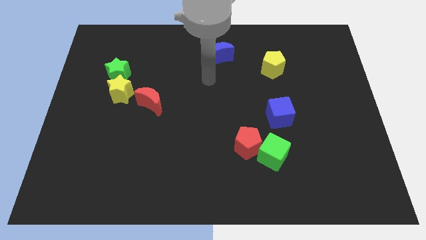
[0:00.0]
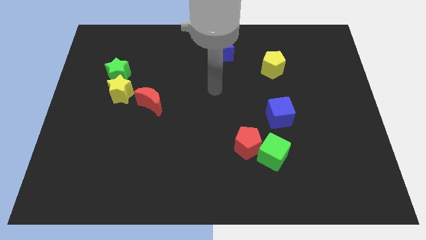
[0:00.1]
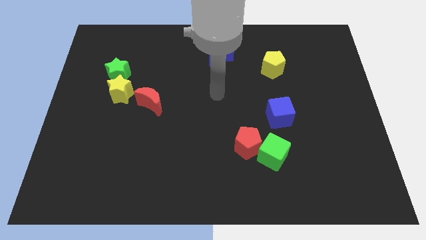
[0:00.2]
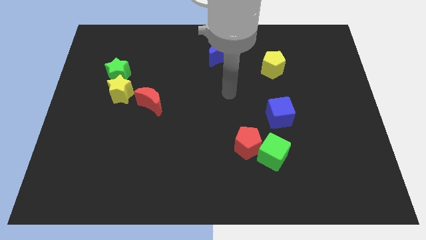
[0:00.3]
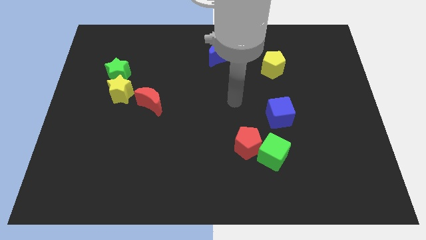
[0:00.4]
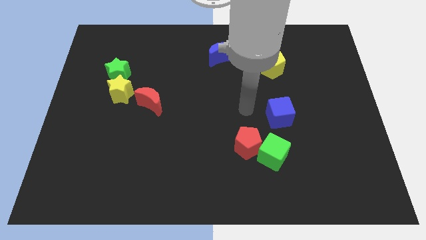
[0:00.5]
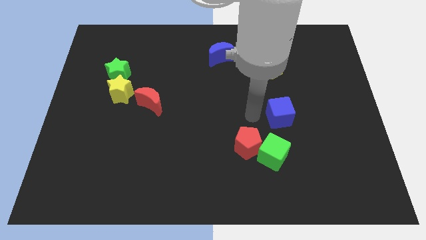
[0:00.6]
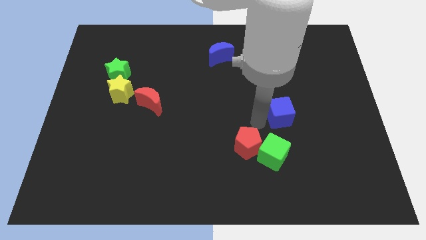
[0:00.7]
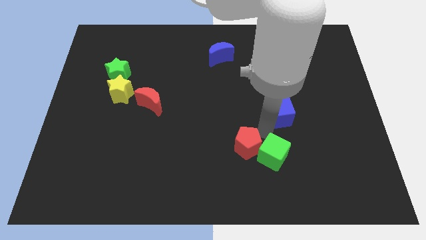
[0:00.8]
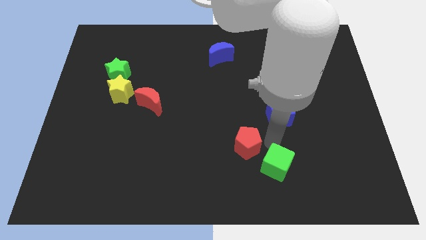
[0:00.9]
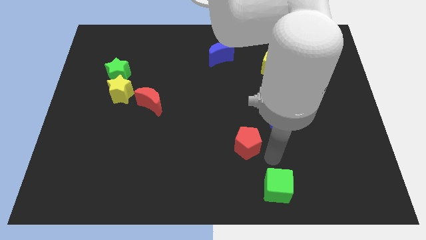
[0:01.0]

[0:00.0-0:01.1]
move the red pentagon away from the green cube

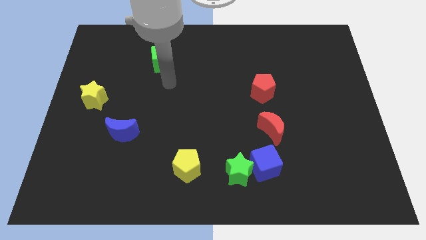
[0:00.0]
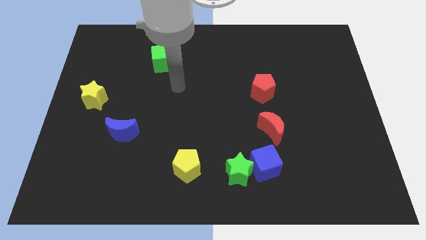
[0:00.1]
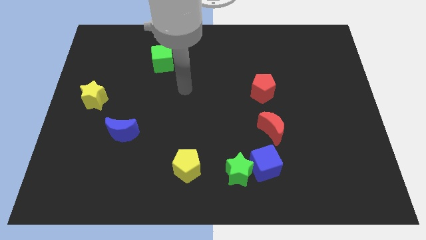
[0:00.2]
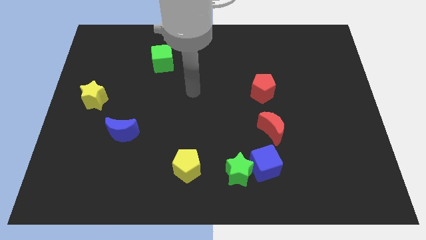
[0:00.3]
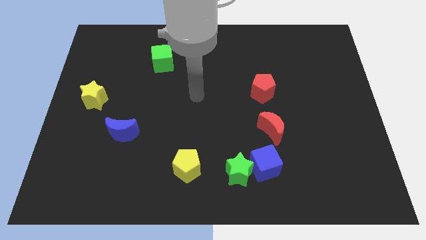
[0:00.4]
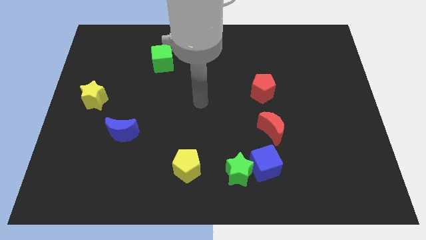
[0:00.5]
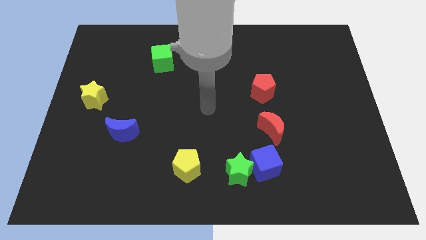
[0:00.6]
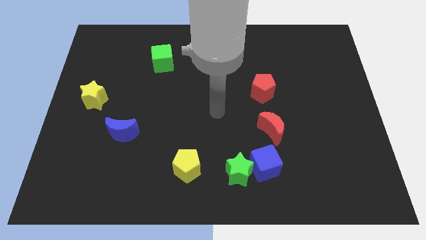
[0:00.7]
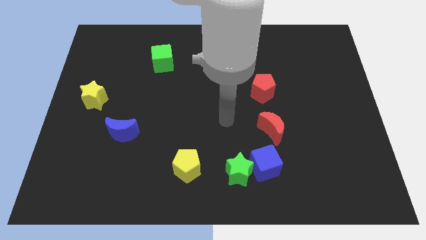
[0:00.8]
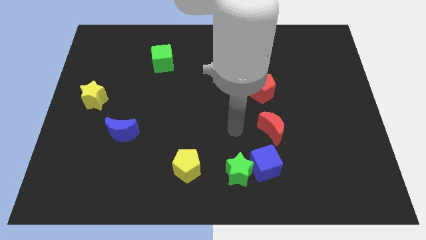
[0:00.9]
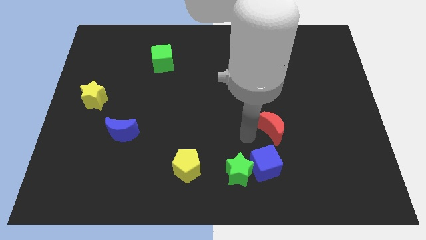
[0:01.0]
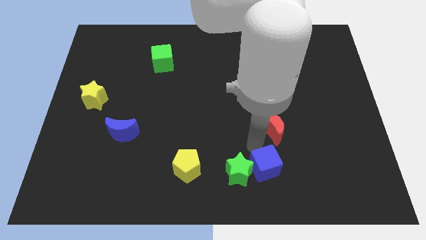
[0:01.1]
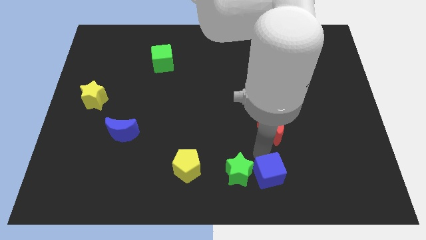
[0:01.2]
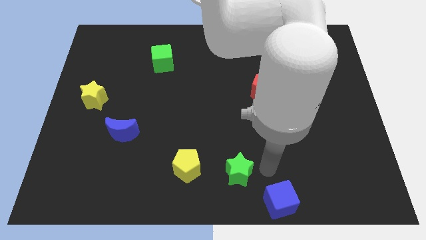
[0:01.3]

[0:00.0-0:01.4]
separate the green star from the blue cube

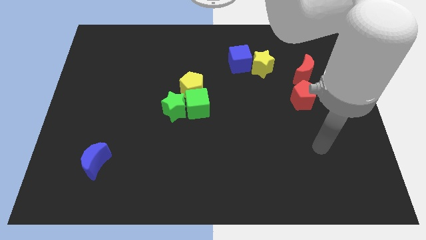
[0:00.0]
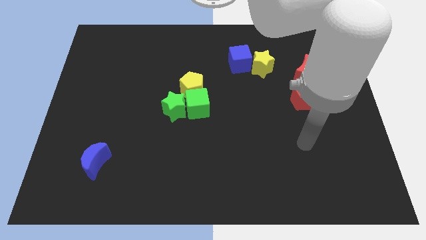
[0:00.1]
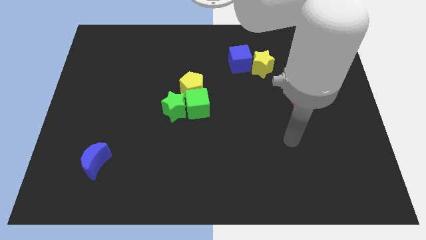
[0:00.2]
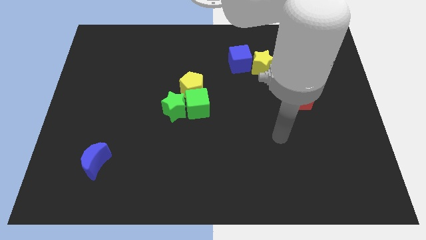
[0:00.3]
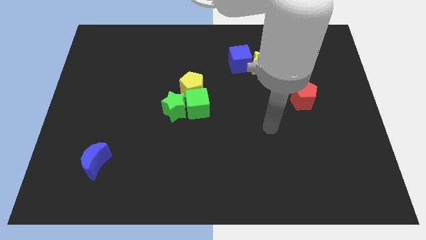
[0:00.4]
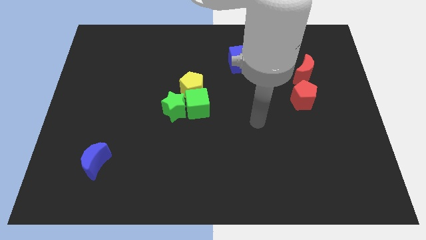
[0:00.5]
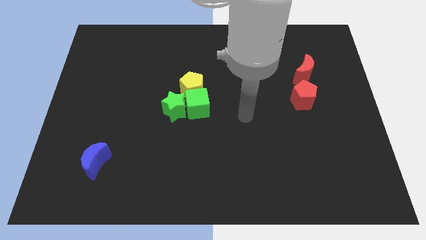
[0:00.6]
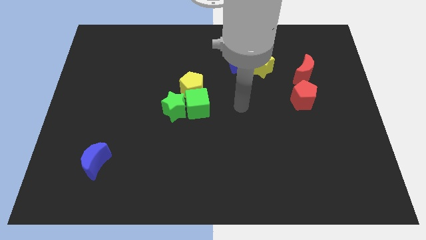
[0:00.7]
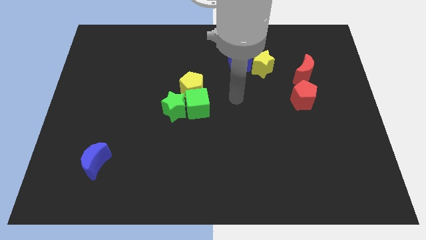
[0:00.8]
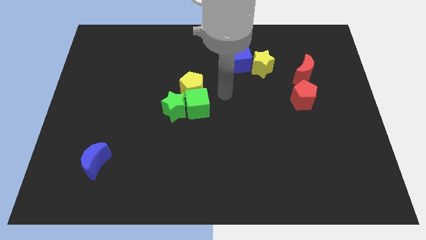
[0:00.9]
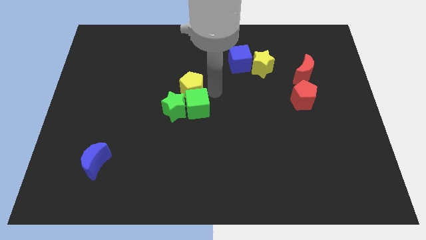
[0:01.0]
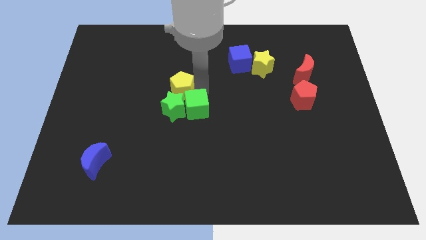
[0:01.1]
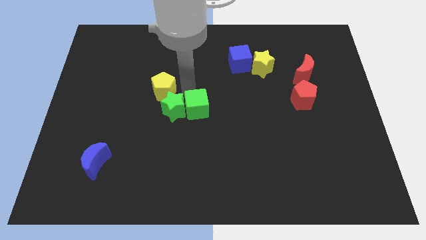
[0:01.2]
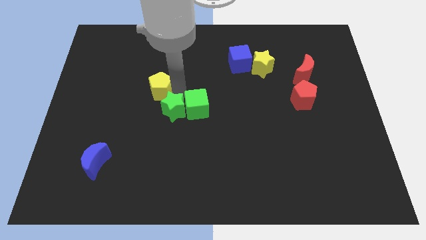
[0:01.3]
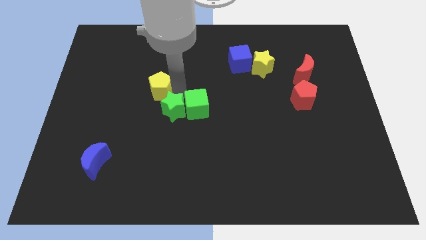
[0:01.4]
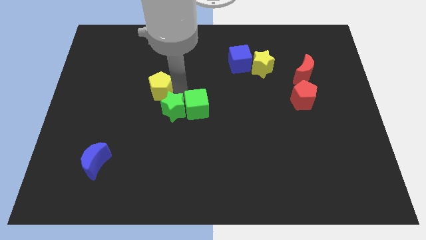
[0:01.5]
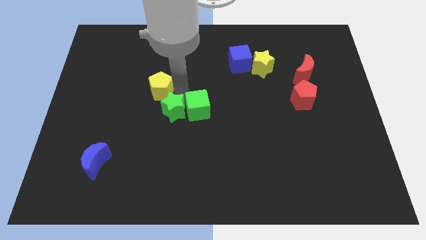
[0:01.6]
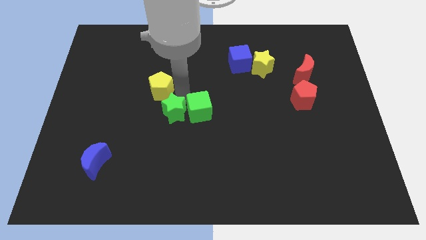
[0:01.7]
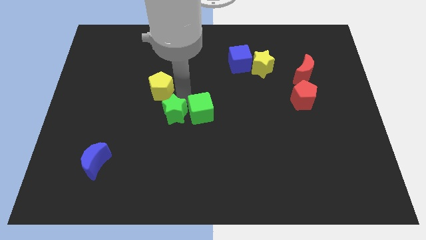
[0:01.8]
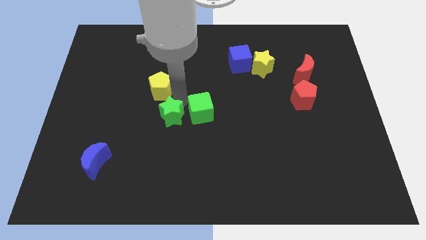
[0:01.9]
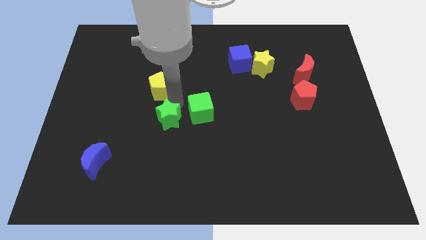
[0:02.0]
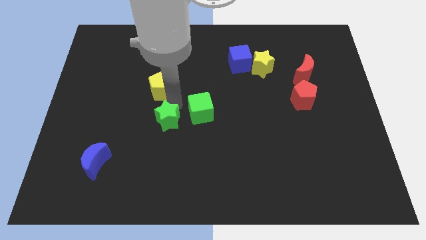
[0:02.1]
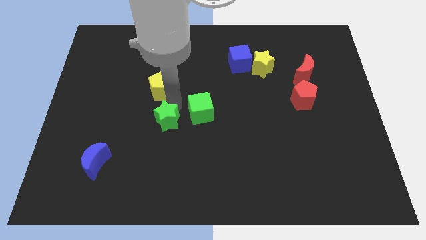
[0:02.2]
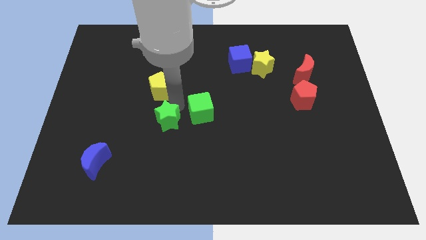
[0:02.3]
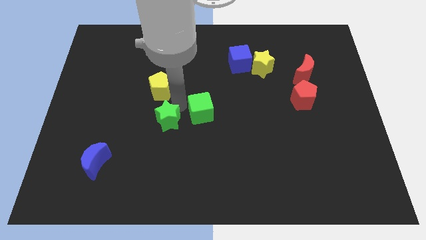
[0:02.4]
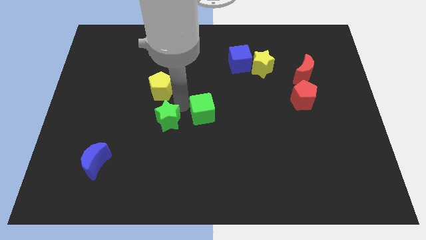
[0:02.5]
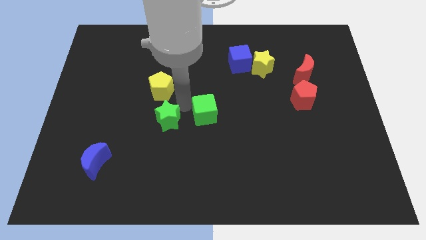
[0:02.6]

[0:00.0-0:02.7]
separate the green cube from the yellow pentagon and green star

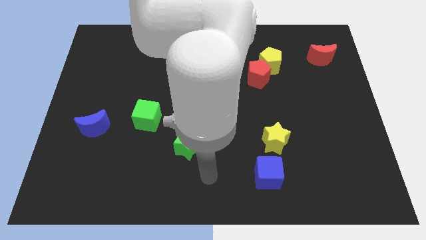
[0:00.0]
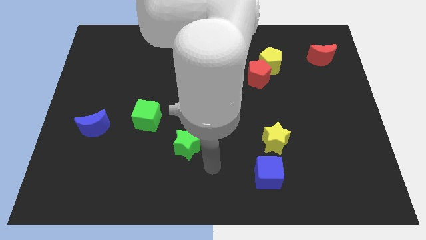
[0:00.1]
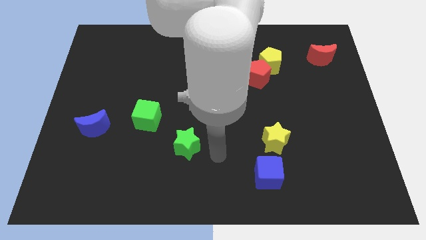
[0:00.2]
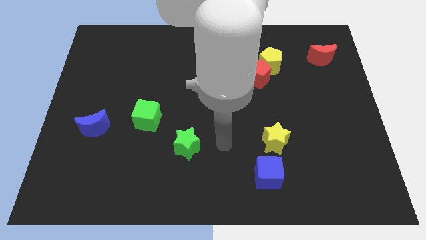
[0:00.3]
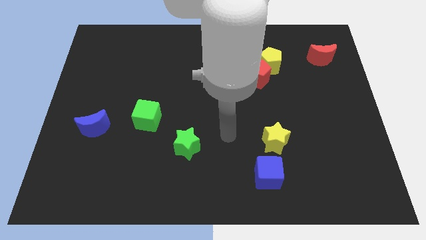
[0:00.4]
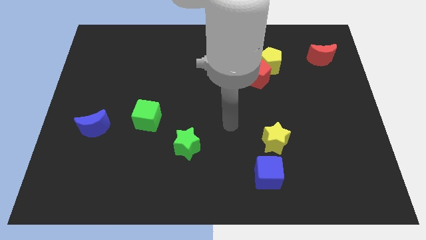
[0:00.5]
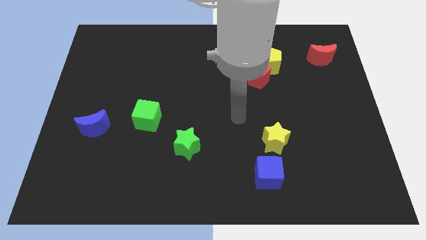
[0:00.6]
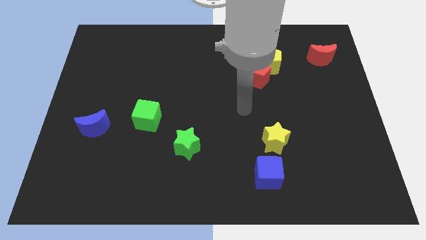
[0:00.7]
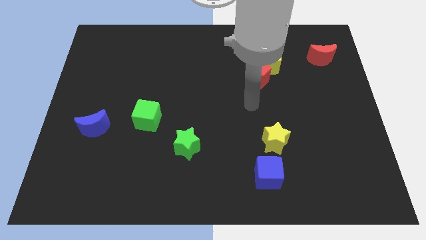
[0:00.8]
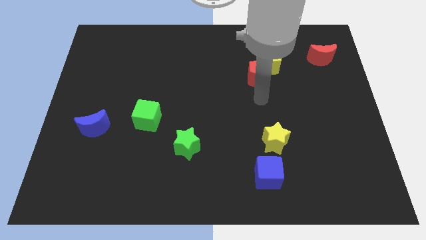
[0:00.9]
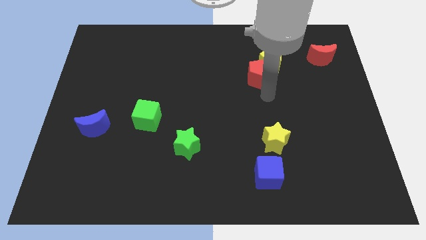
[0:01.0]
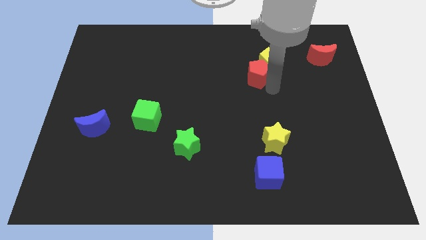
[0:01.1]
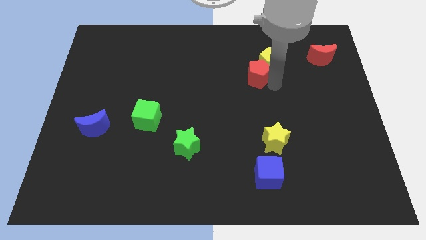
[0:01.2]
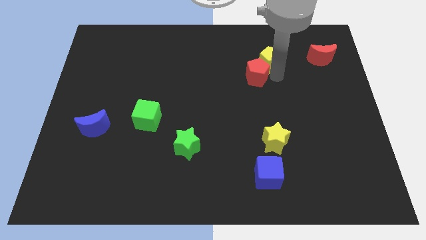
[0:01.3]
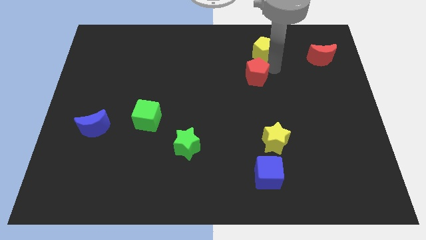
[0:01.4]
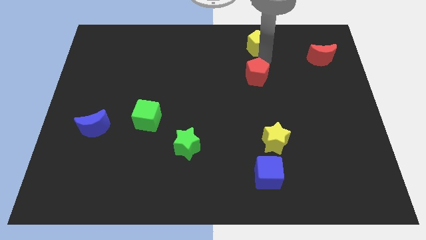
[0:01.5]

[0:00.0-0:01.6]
separate the red pentagon from the yellow pentagon

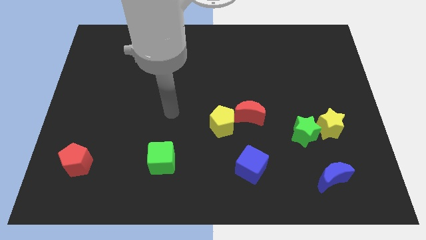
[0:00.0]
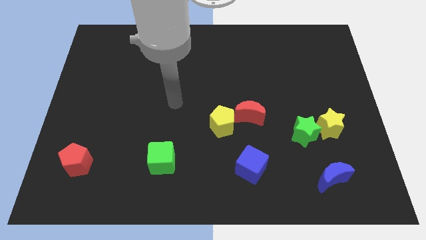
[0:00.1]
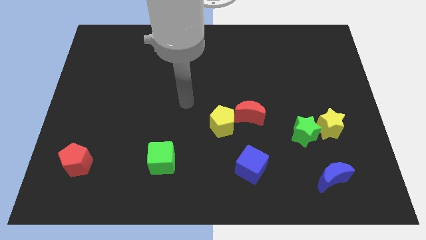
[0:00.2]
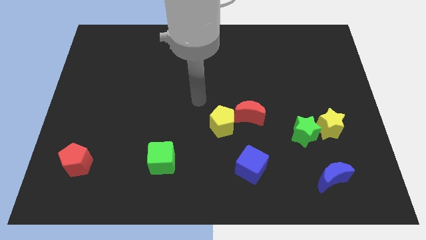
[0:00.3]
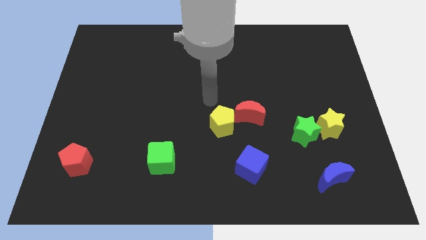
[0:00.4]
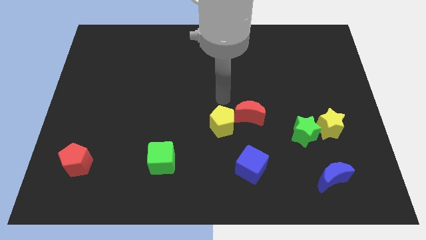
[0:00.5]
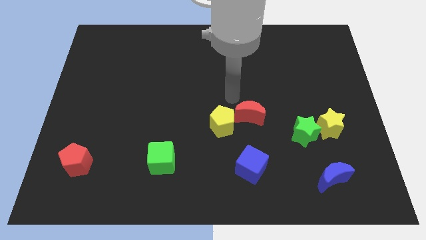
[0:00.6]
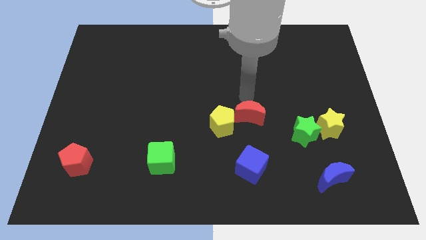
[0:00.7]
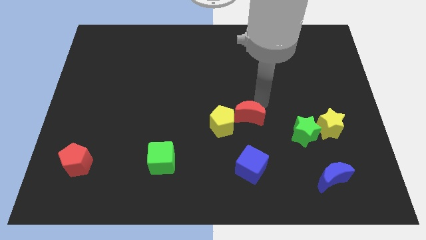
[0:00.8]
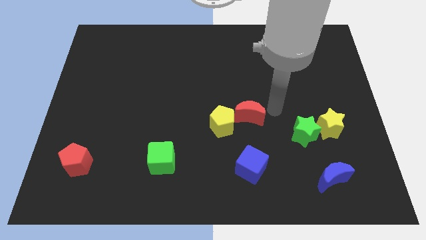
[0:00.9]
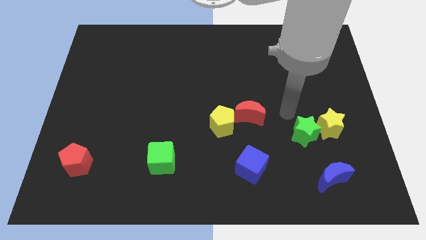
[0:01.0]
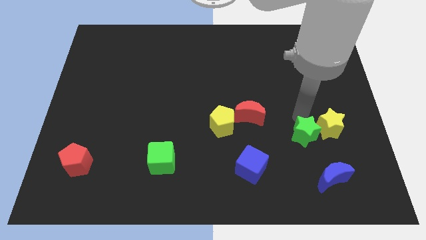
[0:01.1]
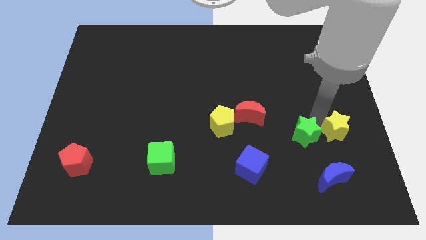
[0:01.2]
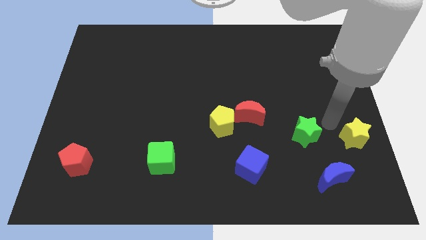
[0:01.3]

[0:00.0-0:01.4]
move the green star away from the yellow star

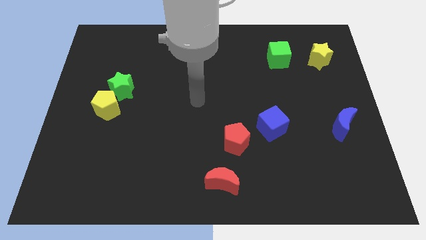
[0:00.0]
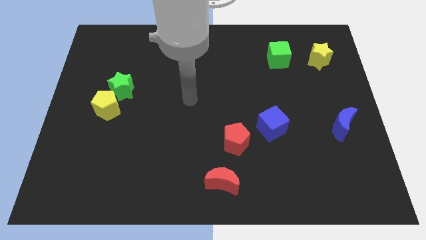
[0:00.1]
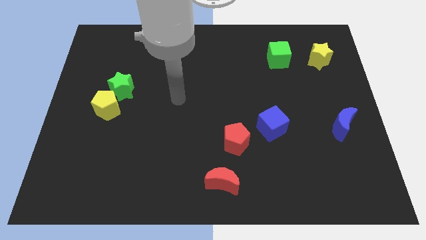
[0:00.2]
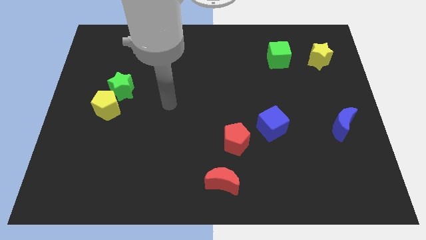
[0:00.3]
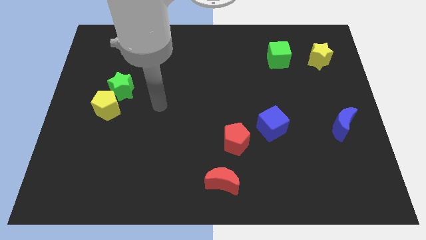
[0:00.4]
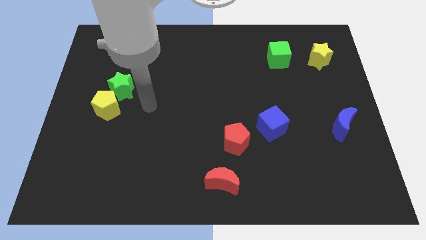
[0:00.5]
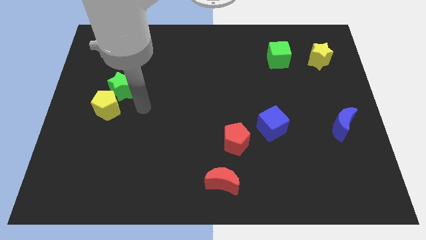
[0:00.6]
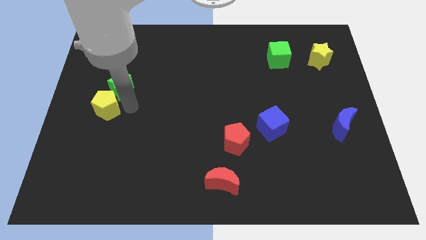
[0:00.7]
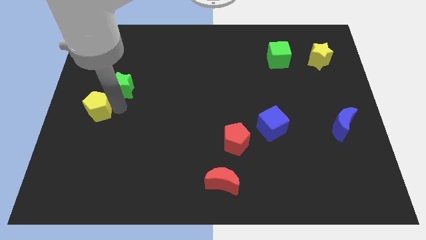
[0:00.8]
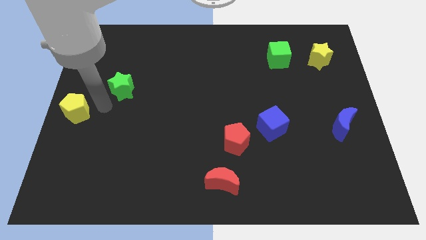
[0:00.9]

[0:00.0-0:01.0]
move the green star away from the yellow pentagon

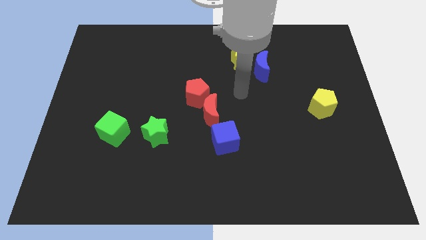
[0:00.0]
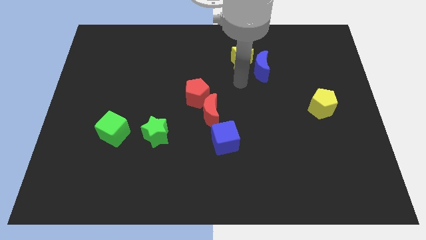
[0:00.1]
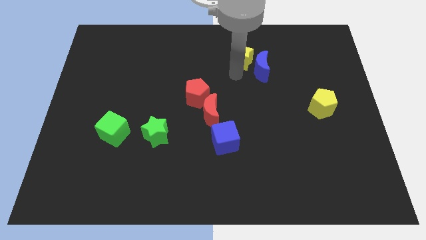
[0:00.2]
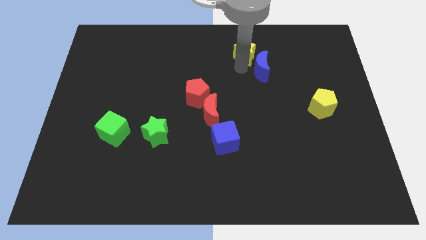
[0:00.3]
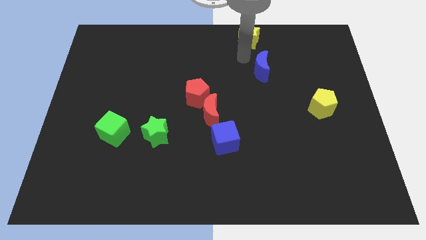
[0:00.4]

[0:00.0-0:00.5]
pull the blue moon apart from the yellow star
